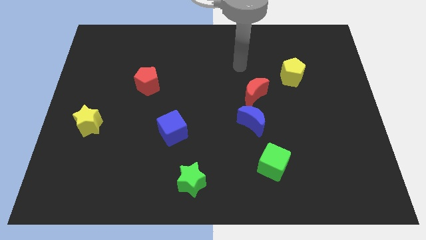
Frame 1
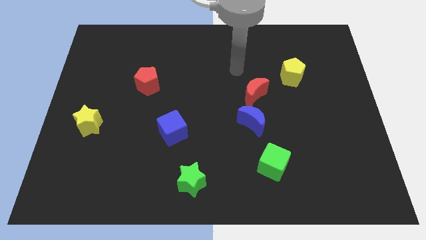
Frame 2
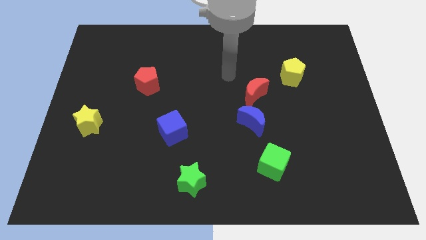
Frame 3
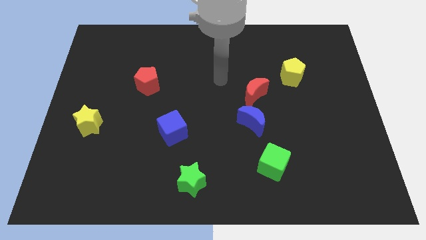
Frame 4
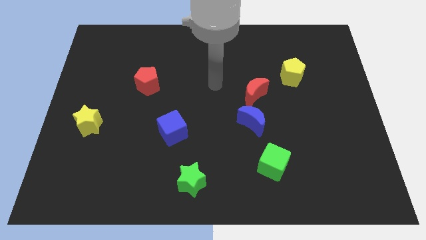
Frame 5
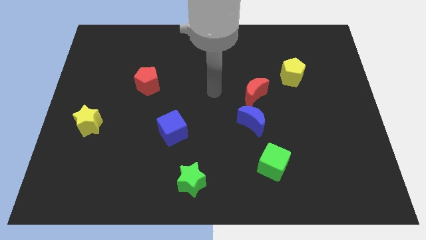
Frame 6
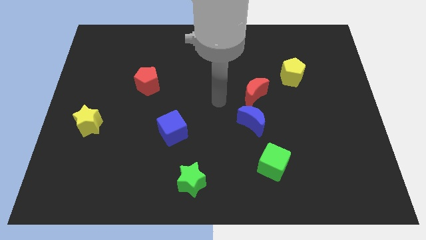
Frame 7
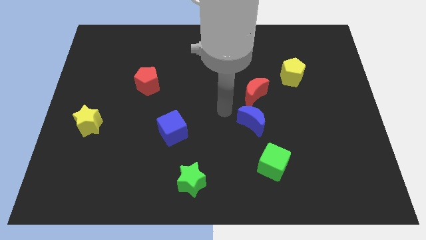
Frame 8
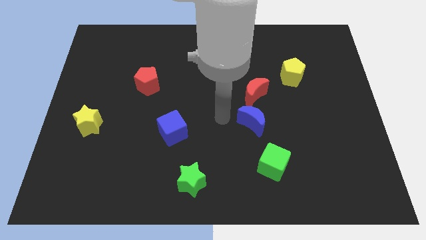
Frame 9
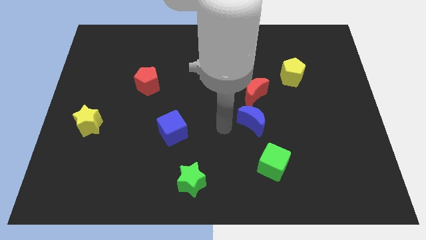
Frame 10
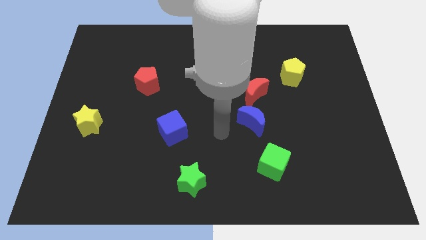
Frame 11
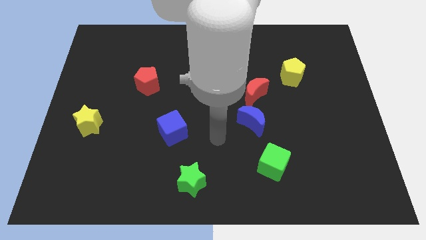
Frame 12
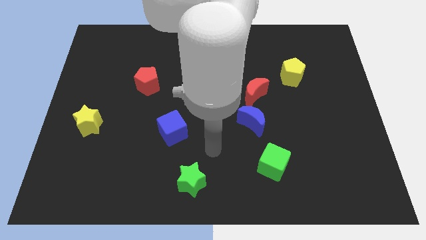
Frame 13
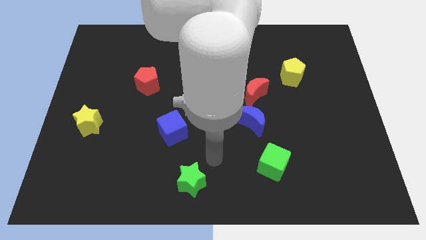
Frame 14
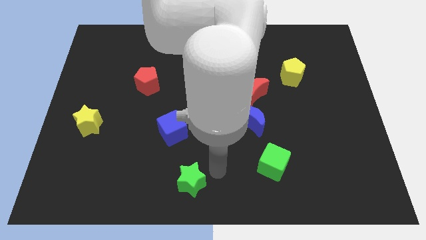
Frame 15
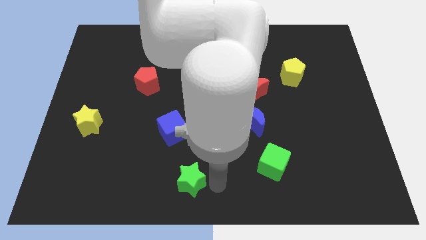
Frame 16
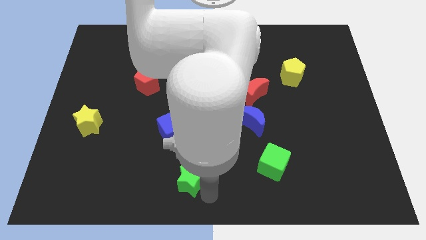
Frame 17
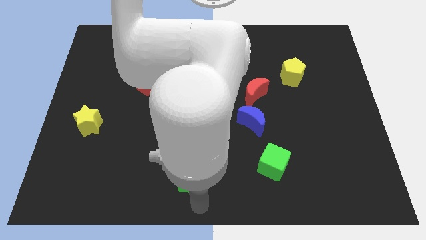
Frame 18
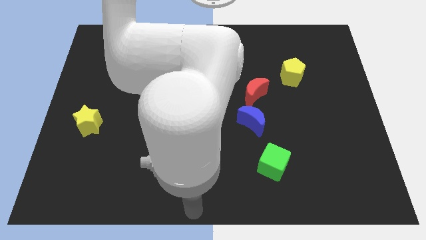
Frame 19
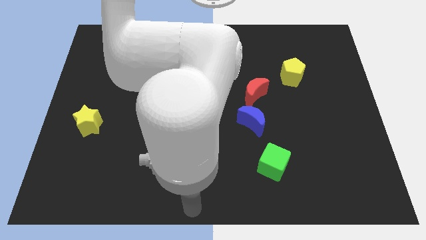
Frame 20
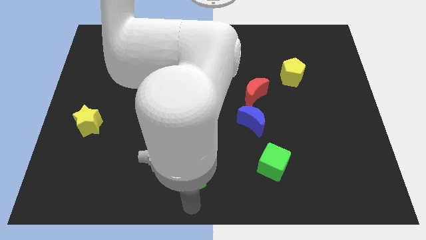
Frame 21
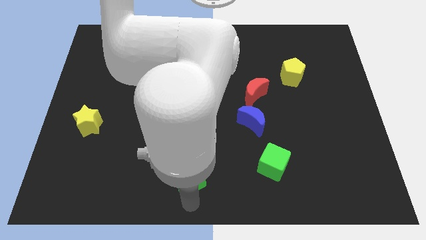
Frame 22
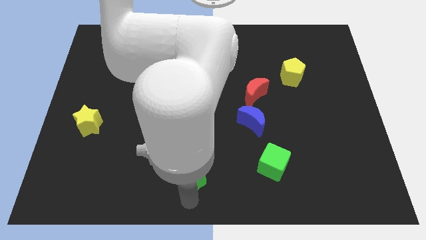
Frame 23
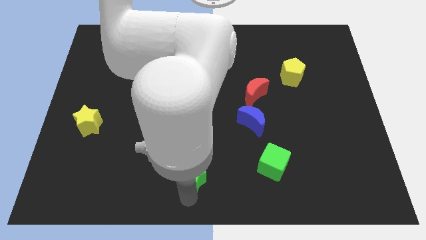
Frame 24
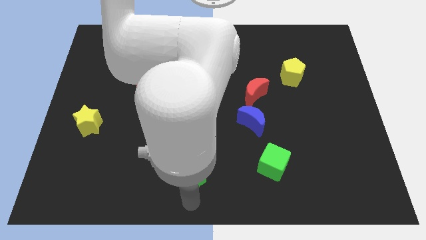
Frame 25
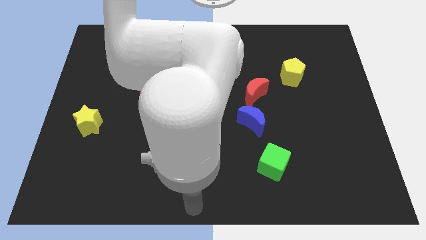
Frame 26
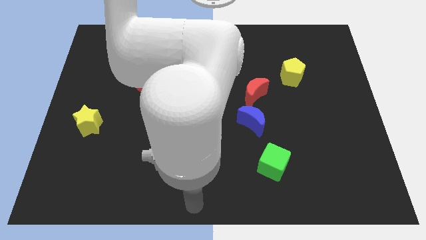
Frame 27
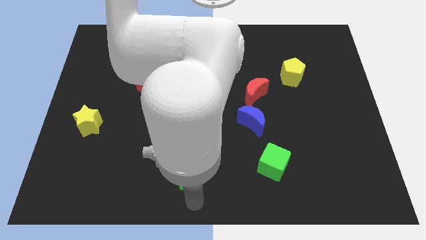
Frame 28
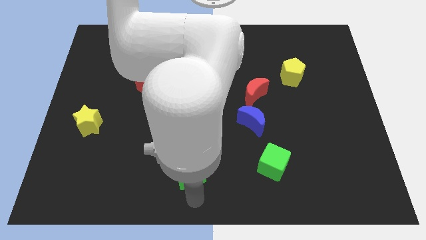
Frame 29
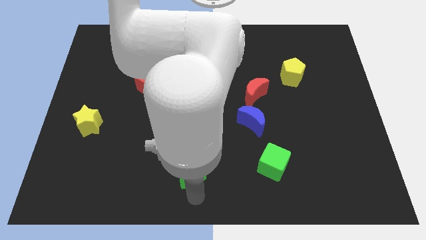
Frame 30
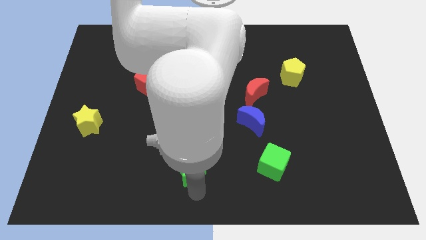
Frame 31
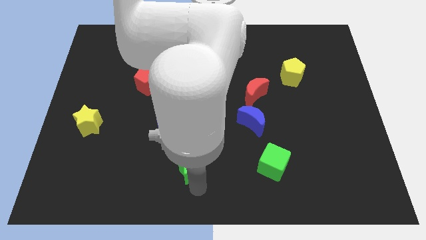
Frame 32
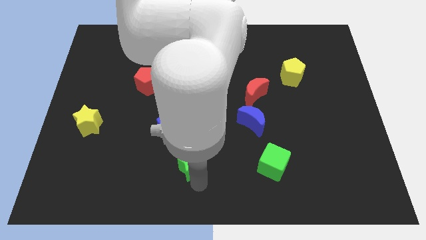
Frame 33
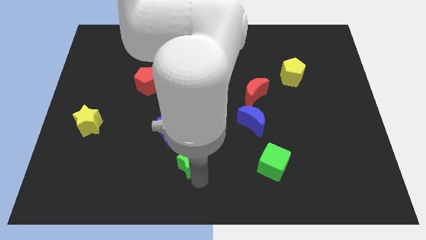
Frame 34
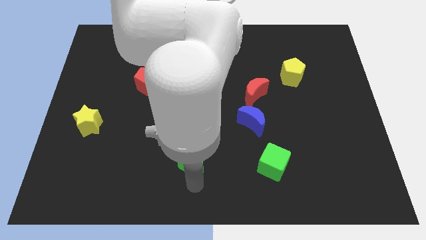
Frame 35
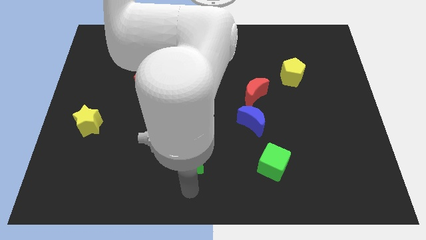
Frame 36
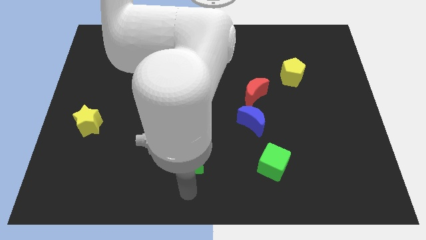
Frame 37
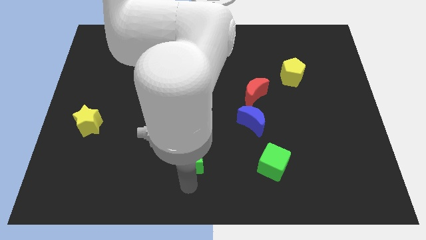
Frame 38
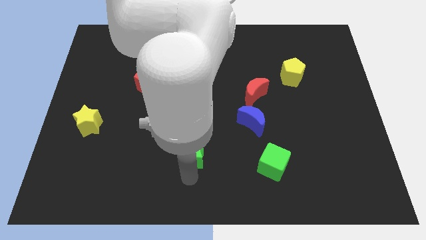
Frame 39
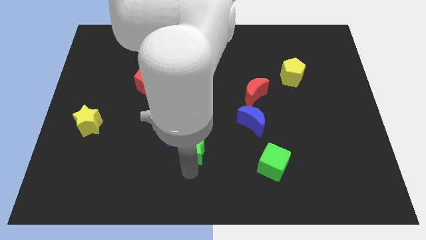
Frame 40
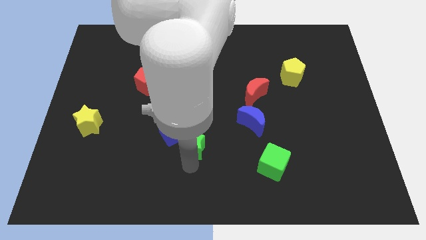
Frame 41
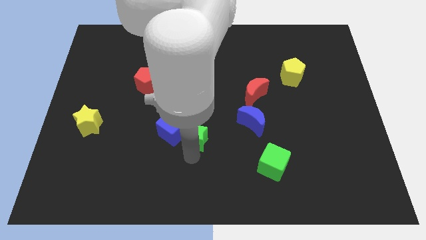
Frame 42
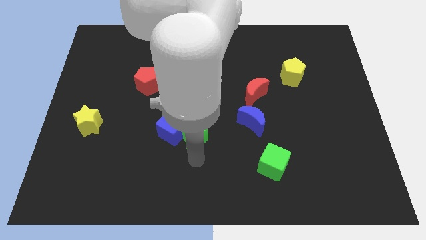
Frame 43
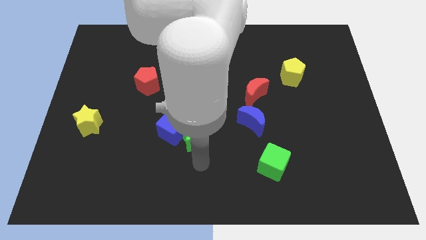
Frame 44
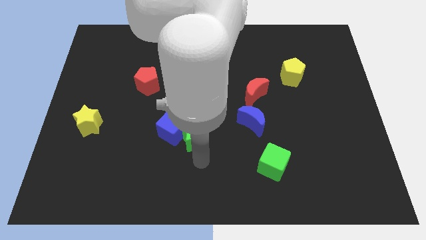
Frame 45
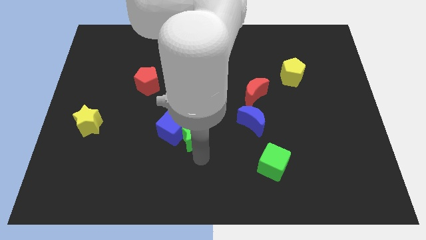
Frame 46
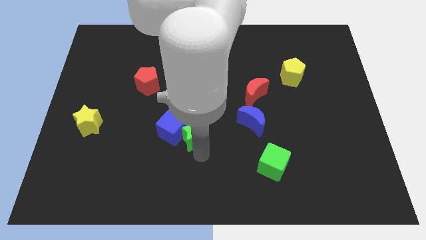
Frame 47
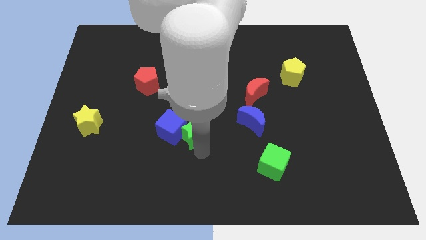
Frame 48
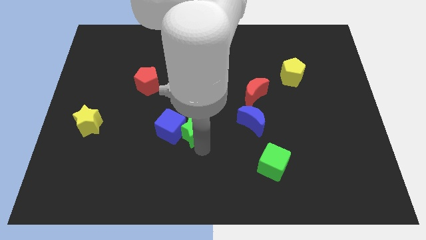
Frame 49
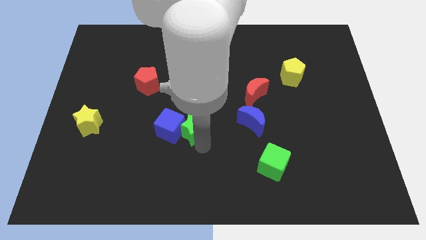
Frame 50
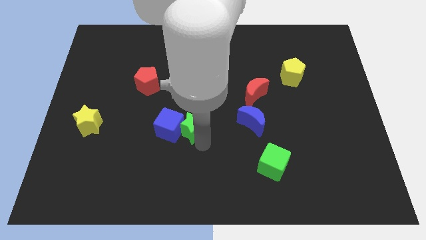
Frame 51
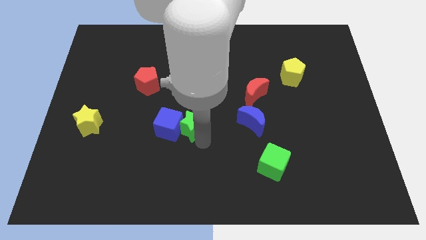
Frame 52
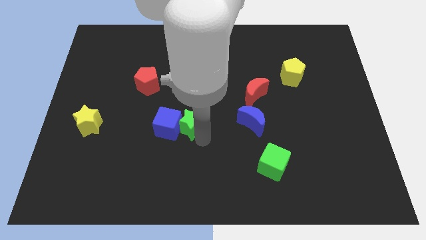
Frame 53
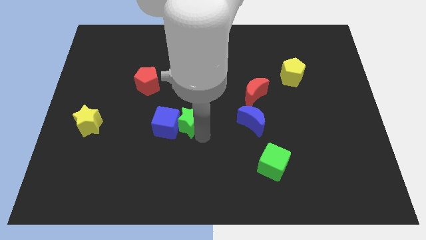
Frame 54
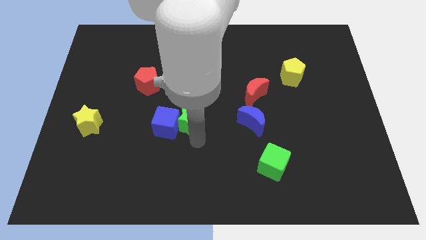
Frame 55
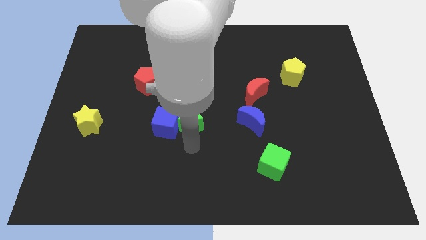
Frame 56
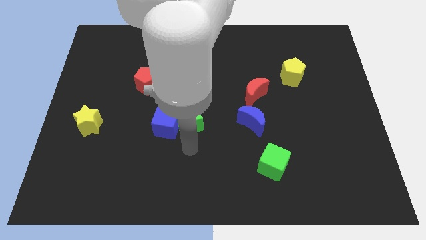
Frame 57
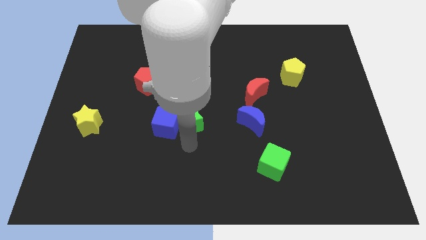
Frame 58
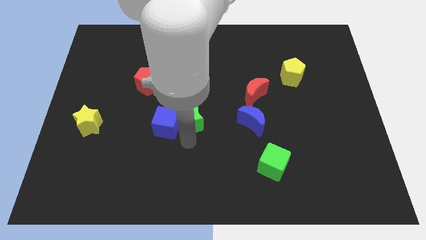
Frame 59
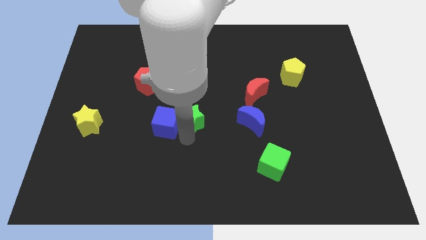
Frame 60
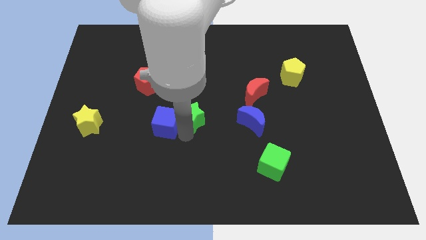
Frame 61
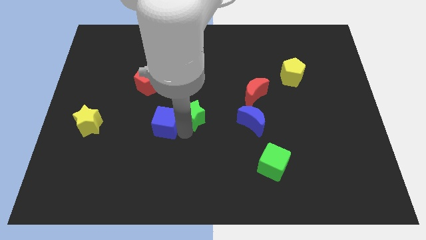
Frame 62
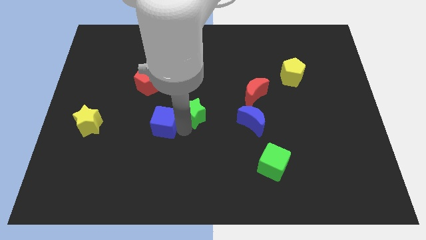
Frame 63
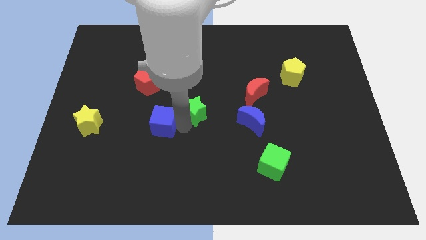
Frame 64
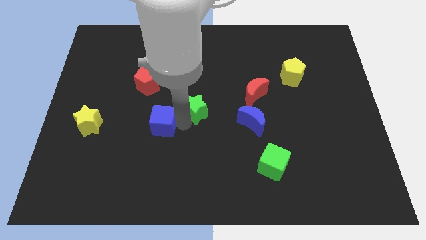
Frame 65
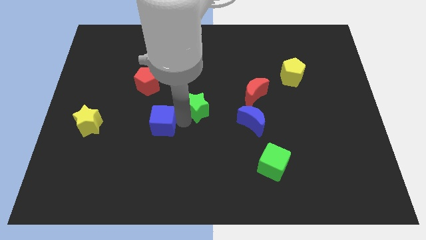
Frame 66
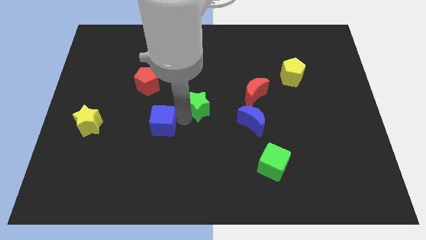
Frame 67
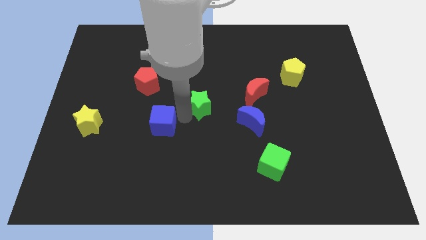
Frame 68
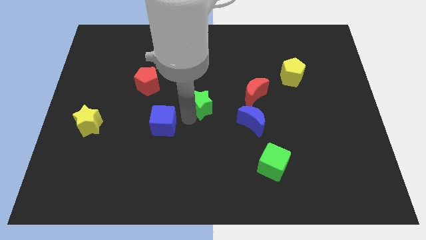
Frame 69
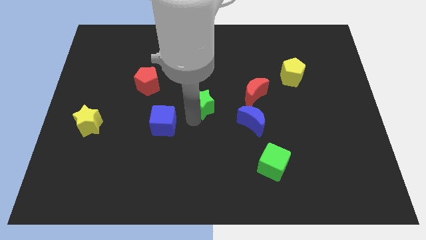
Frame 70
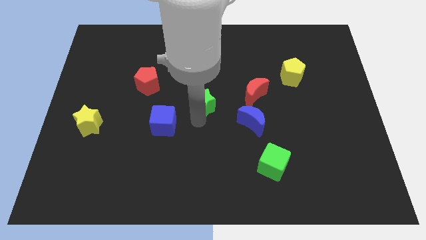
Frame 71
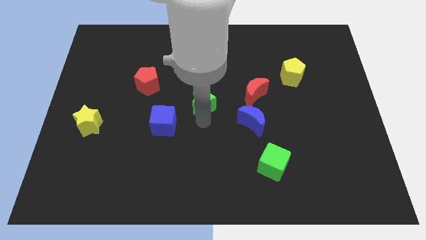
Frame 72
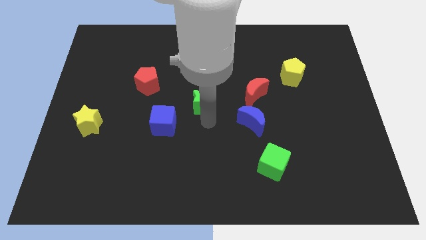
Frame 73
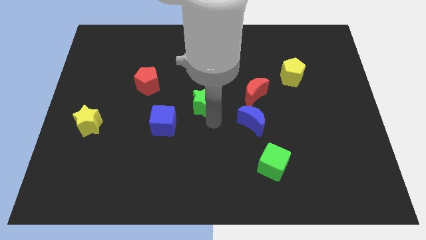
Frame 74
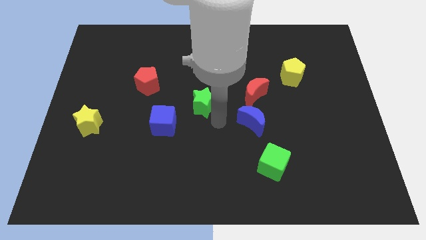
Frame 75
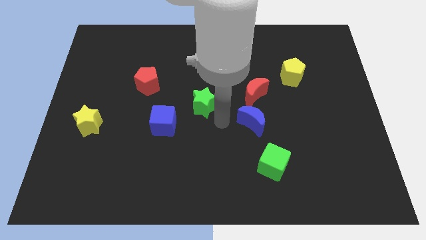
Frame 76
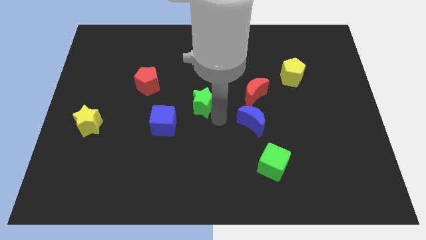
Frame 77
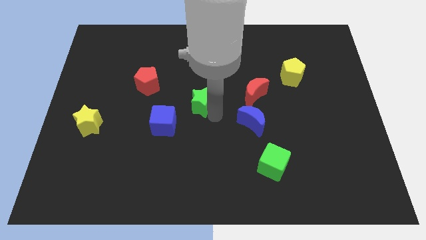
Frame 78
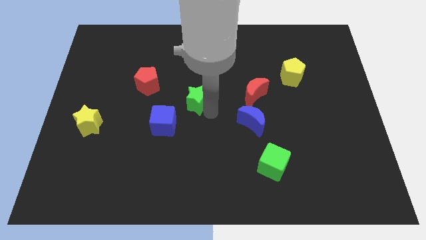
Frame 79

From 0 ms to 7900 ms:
push the green star up
